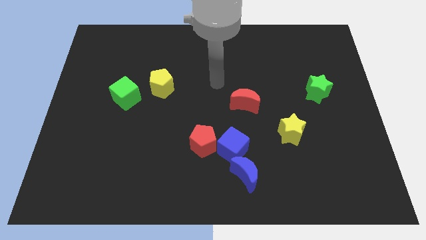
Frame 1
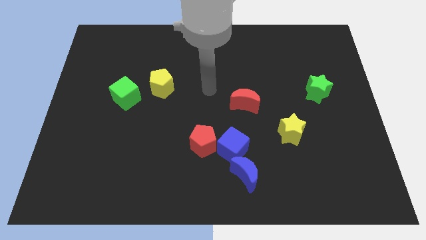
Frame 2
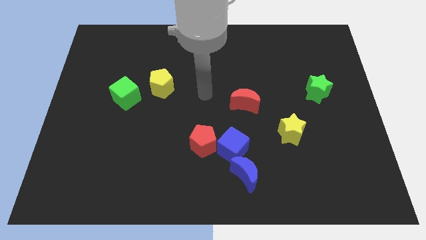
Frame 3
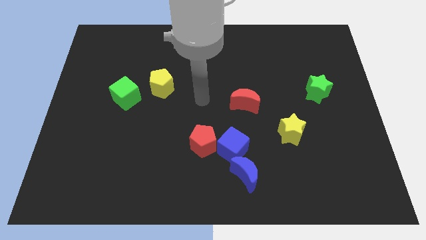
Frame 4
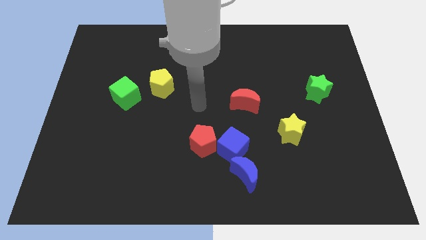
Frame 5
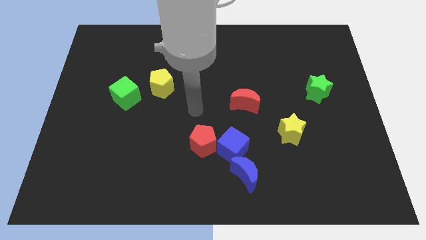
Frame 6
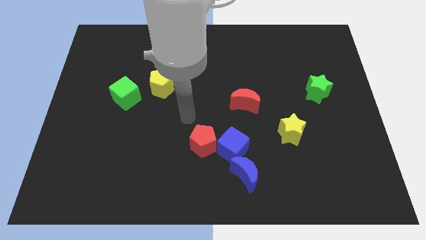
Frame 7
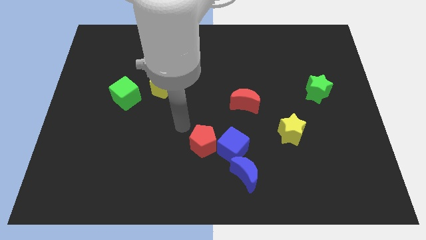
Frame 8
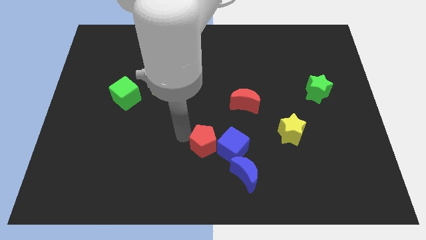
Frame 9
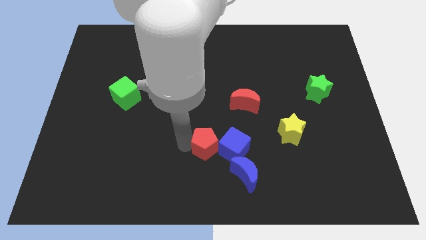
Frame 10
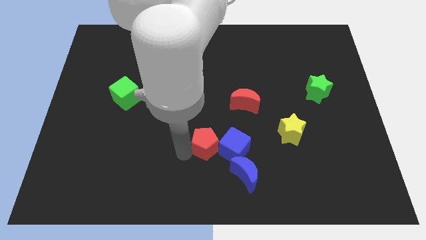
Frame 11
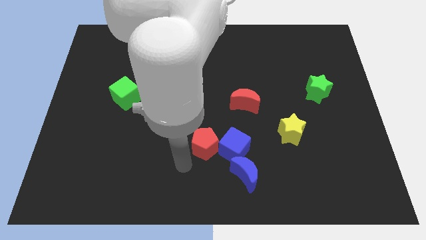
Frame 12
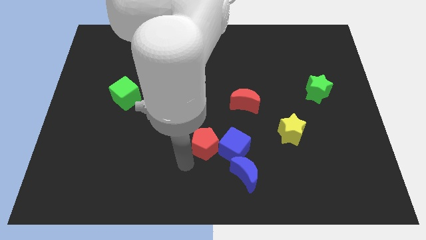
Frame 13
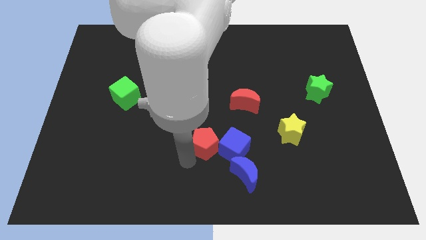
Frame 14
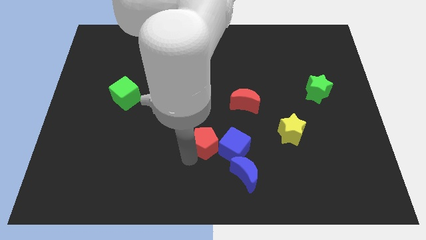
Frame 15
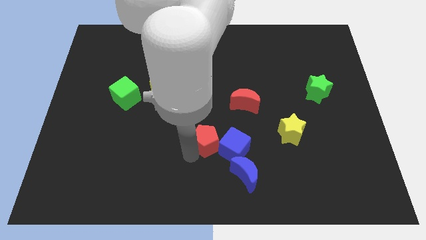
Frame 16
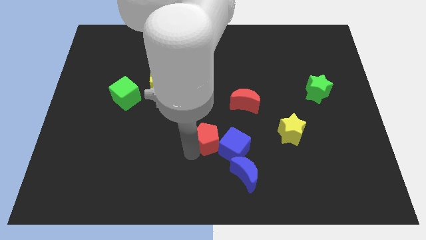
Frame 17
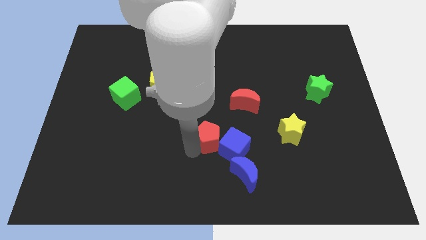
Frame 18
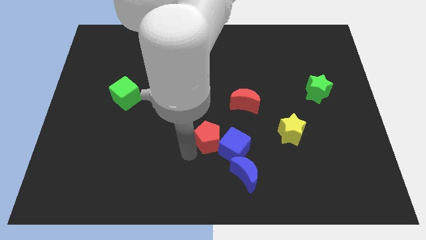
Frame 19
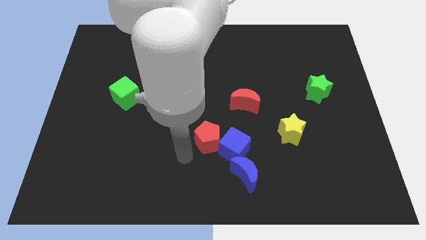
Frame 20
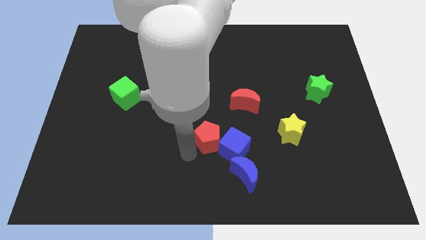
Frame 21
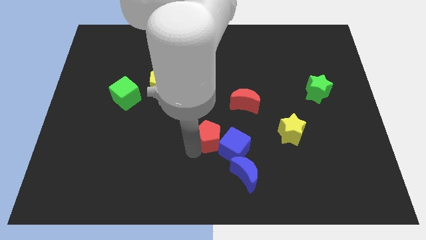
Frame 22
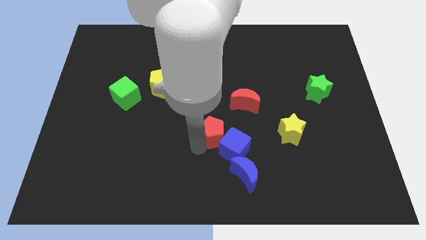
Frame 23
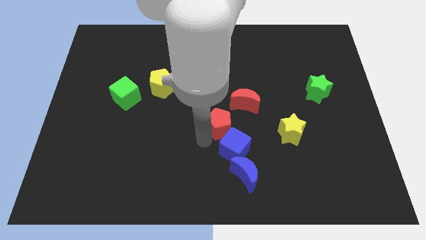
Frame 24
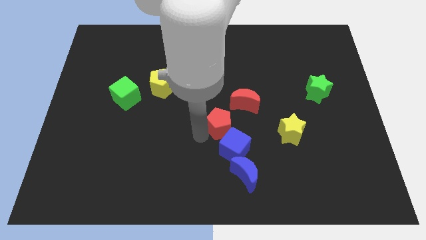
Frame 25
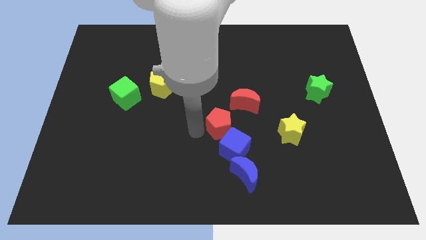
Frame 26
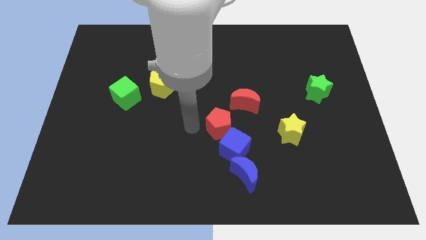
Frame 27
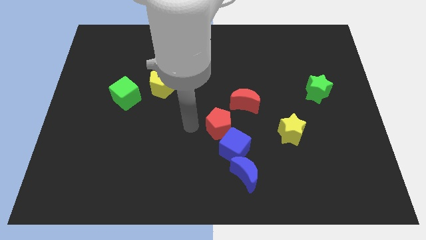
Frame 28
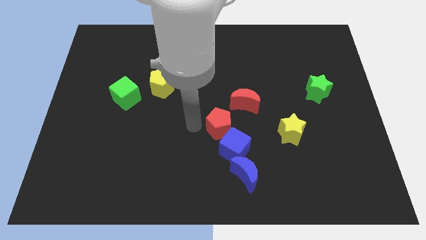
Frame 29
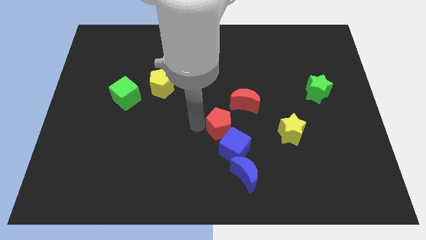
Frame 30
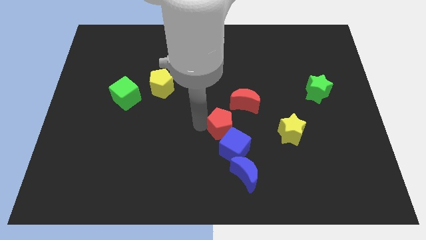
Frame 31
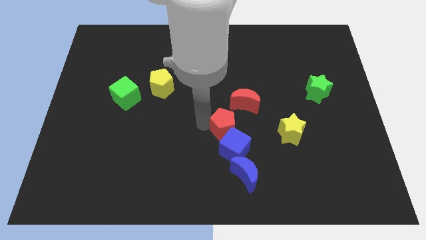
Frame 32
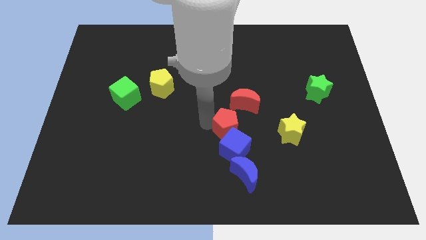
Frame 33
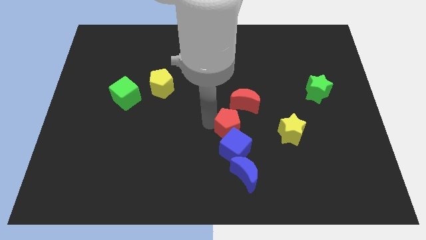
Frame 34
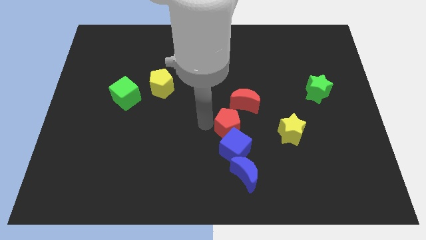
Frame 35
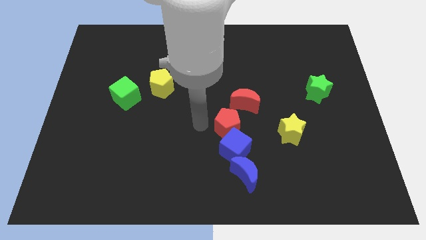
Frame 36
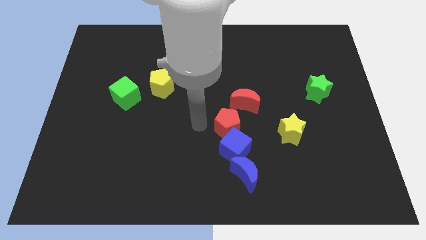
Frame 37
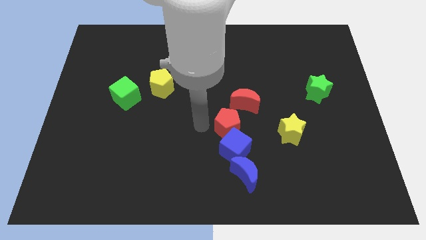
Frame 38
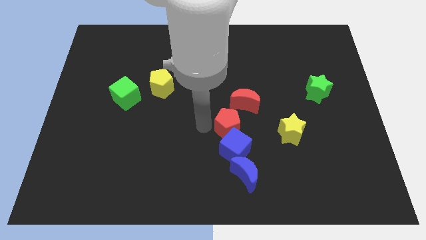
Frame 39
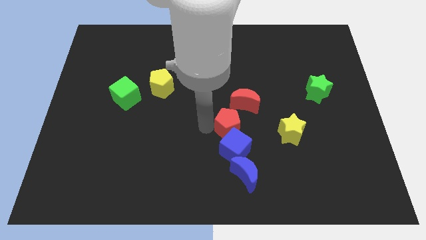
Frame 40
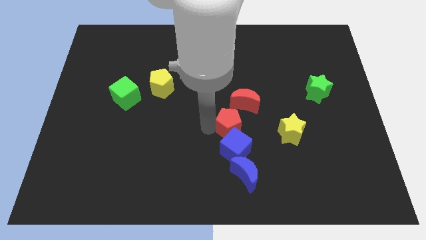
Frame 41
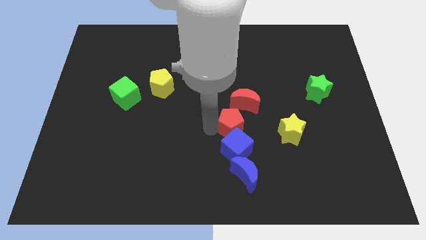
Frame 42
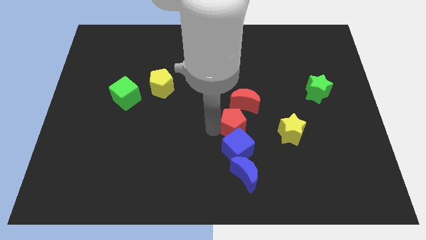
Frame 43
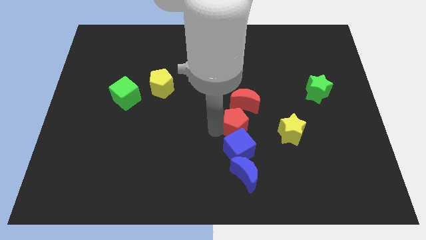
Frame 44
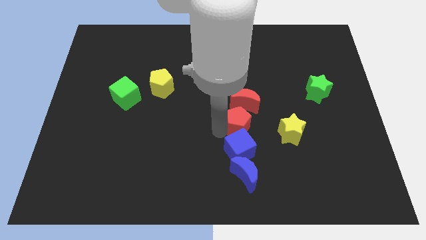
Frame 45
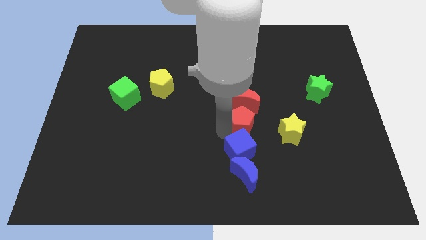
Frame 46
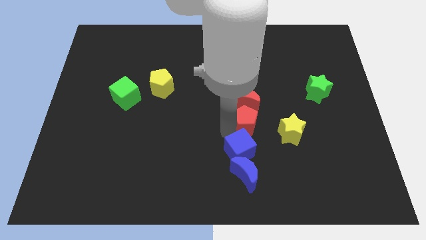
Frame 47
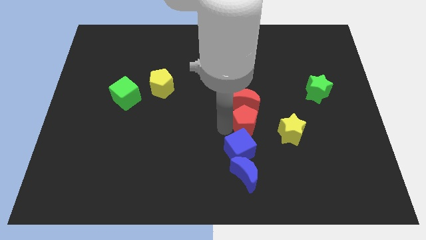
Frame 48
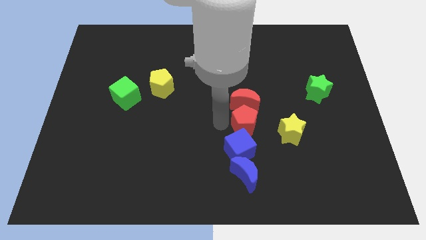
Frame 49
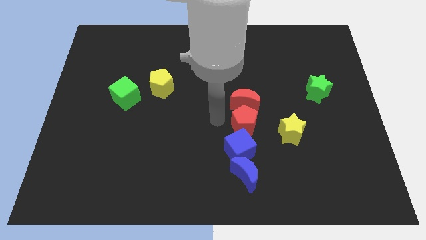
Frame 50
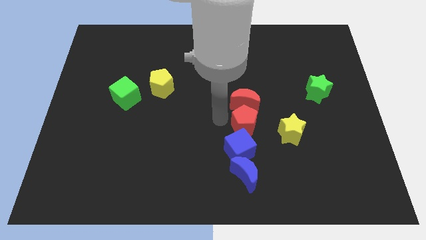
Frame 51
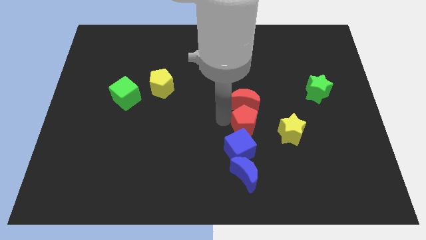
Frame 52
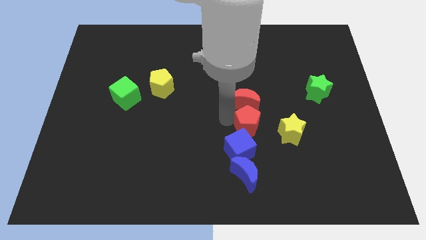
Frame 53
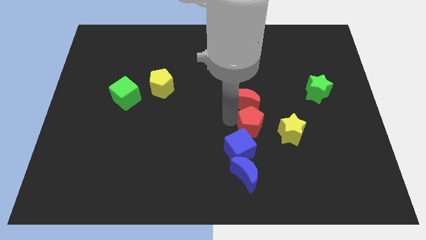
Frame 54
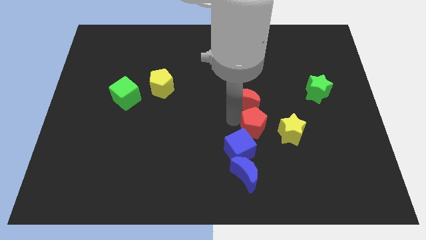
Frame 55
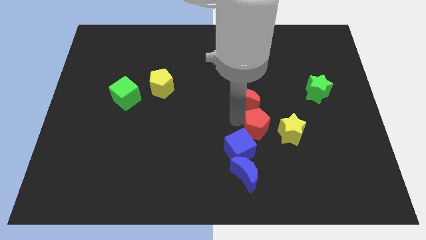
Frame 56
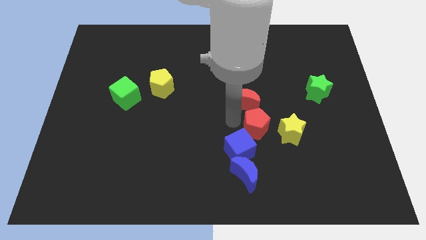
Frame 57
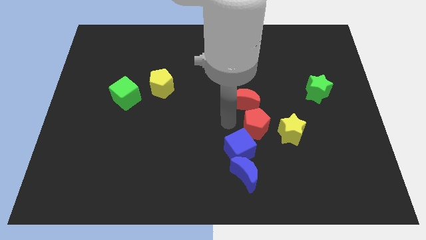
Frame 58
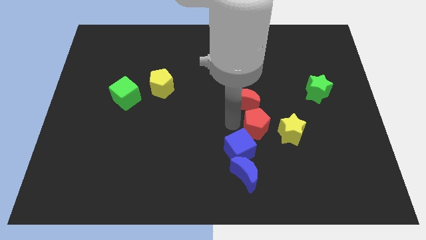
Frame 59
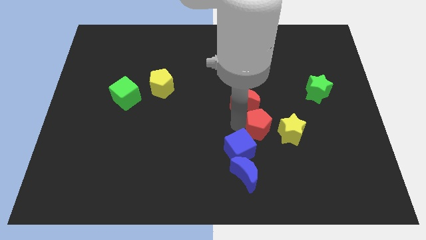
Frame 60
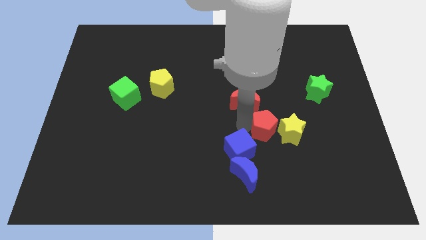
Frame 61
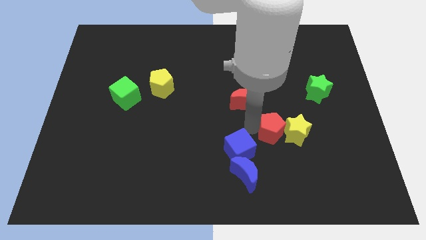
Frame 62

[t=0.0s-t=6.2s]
slide the red pentagon towards the yellow star

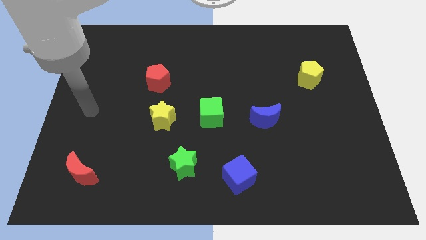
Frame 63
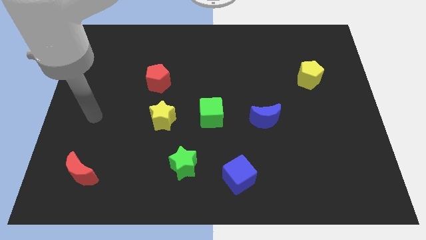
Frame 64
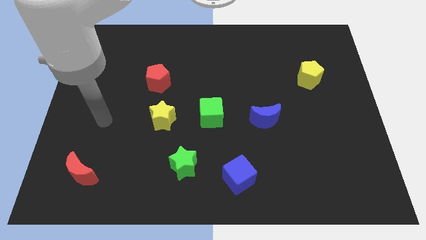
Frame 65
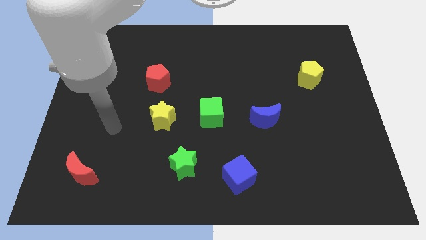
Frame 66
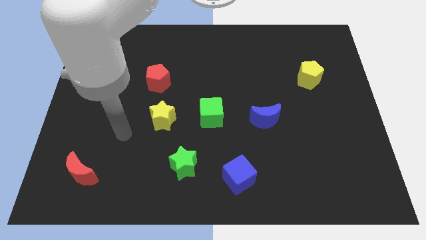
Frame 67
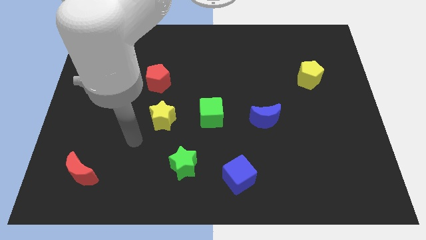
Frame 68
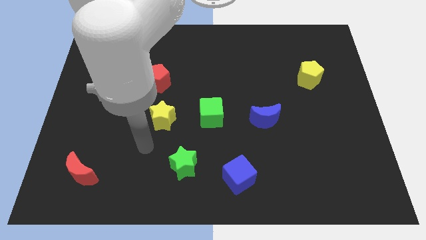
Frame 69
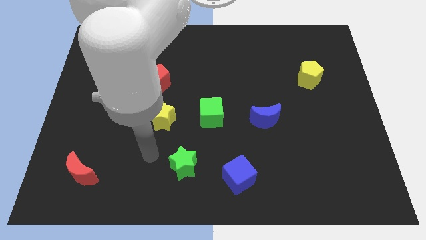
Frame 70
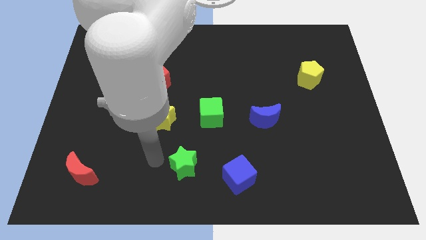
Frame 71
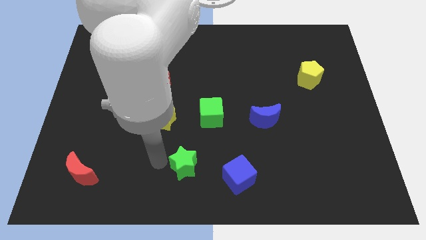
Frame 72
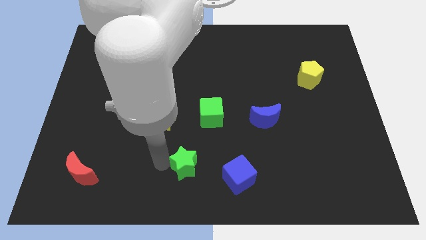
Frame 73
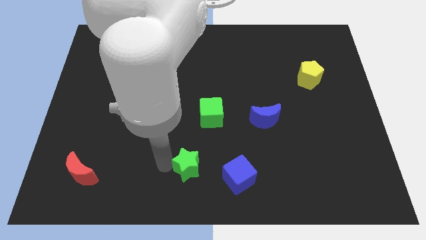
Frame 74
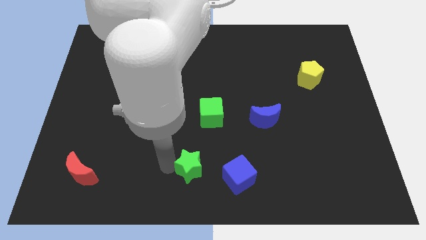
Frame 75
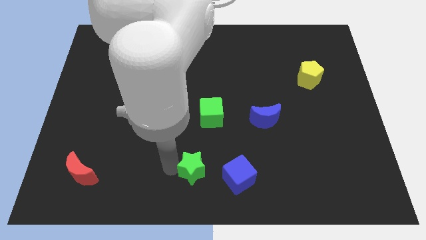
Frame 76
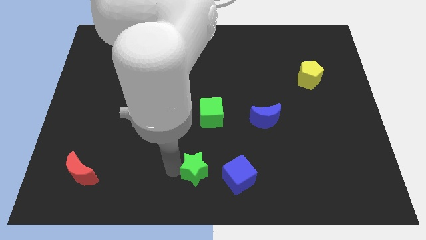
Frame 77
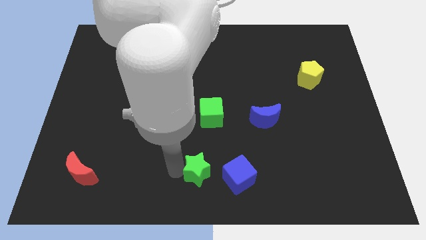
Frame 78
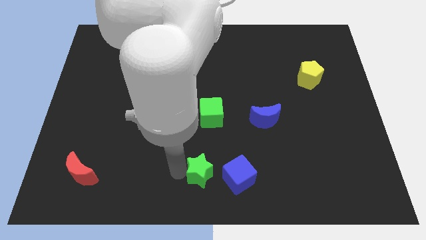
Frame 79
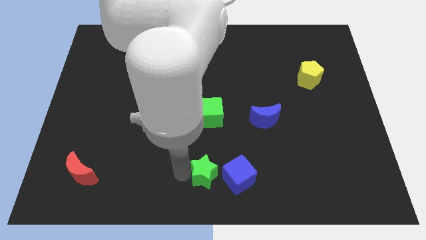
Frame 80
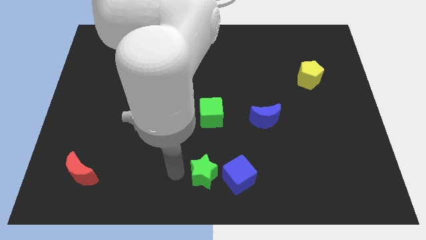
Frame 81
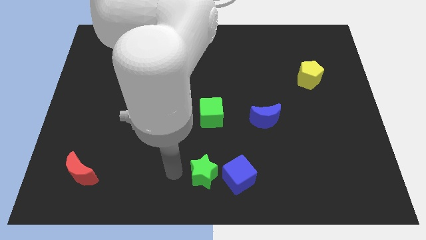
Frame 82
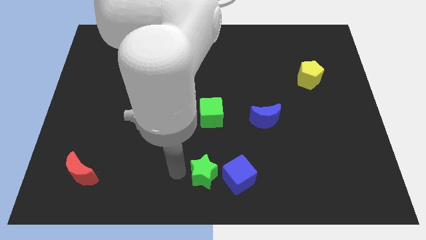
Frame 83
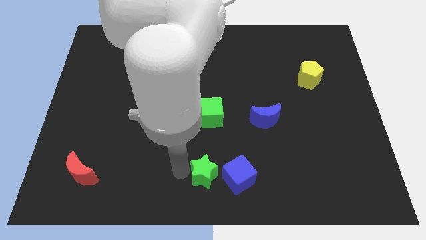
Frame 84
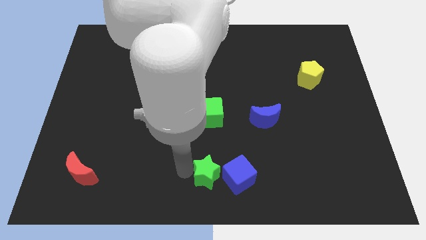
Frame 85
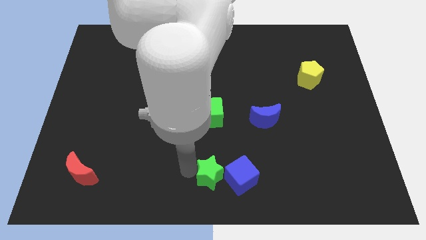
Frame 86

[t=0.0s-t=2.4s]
move the green star next to the blue cube

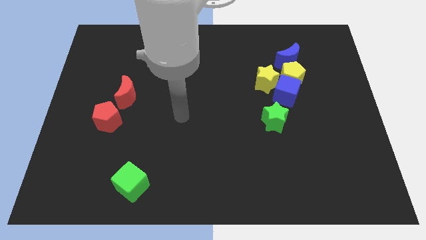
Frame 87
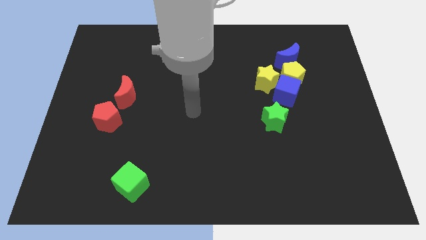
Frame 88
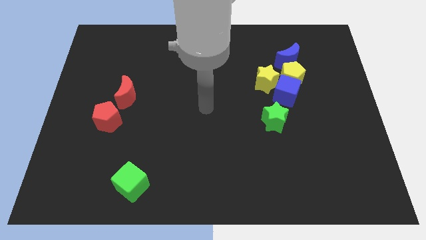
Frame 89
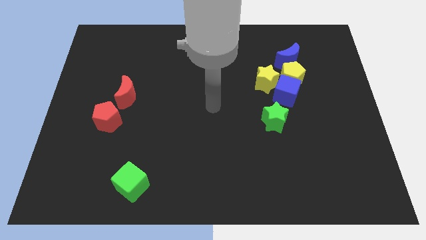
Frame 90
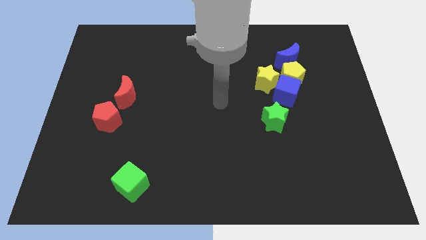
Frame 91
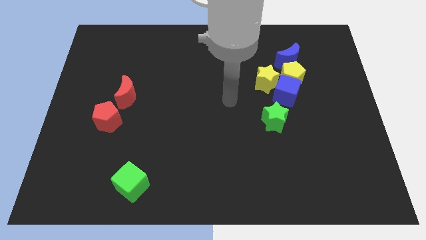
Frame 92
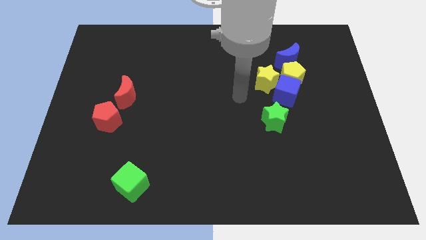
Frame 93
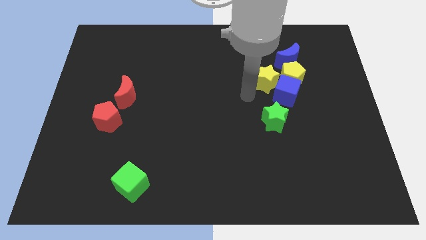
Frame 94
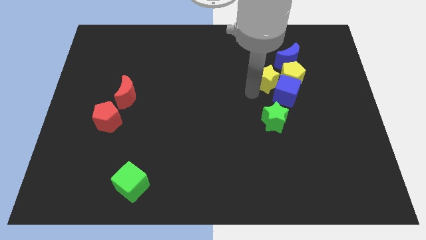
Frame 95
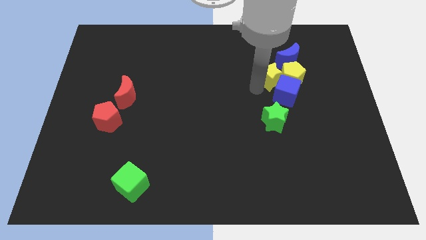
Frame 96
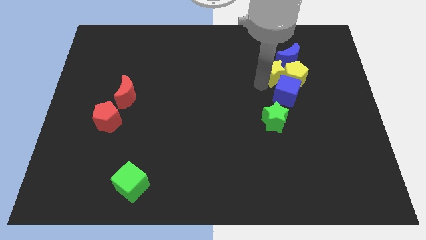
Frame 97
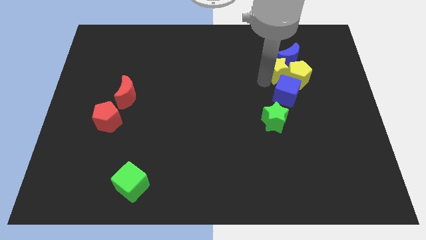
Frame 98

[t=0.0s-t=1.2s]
put the yellow star towards the blue moon
